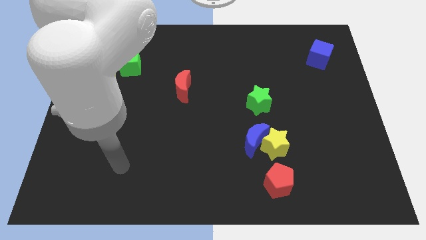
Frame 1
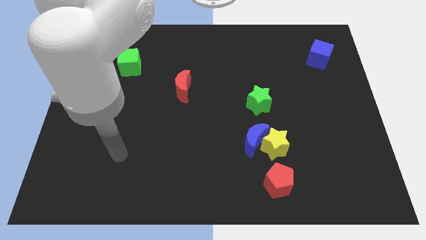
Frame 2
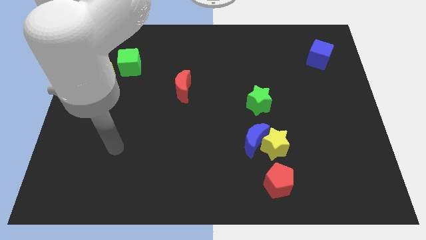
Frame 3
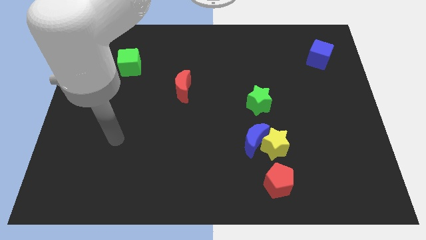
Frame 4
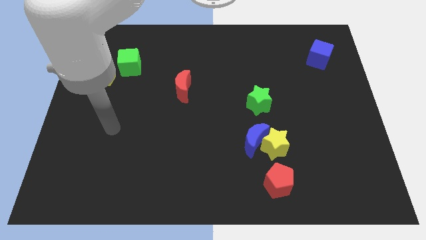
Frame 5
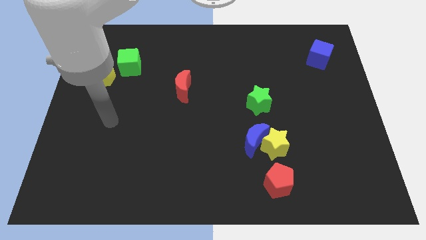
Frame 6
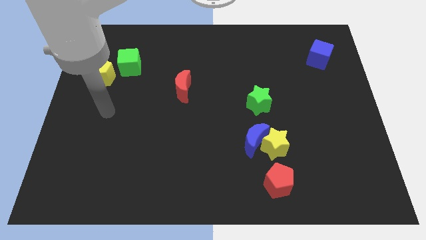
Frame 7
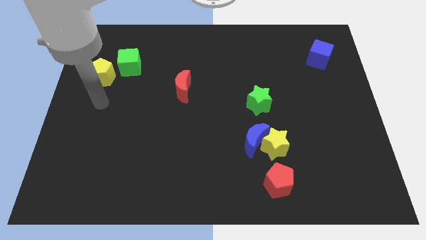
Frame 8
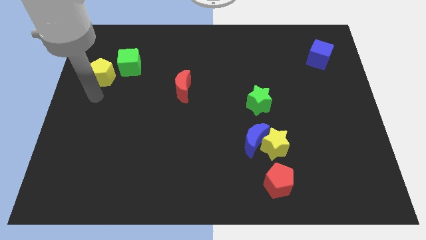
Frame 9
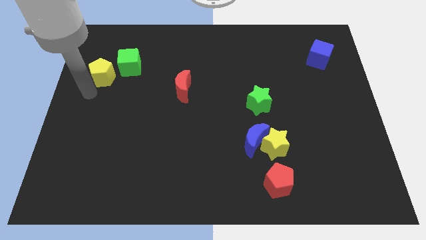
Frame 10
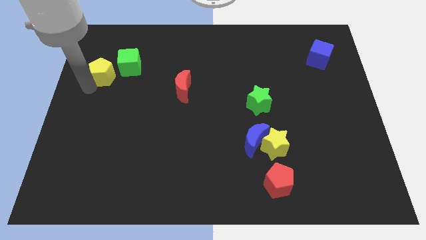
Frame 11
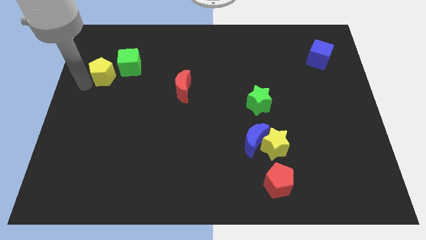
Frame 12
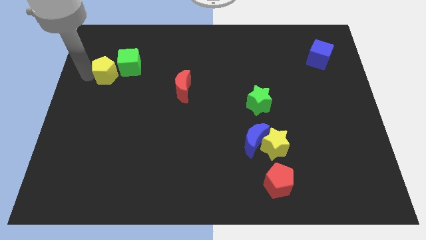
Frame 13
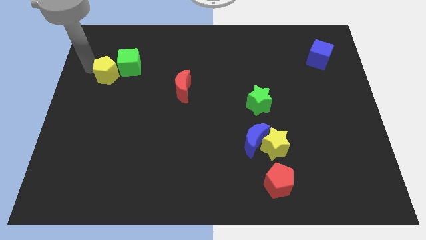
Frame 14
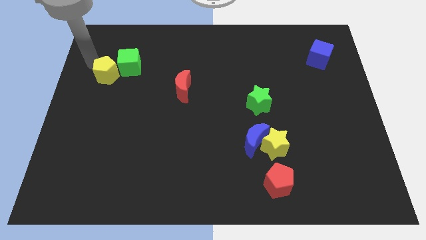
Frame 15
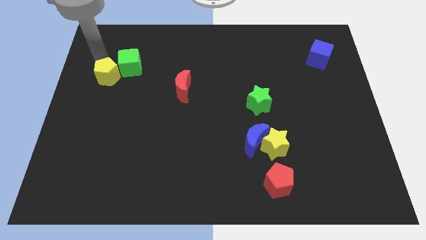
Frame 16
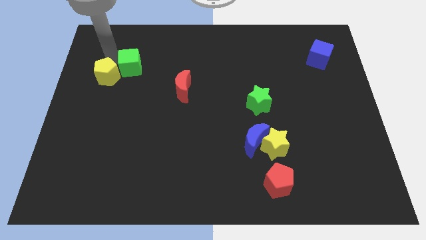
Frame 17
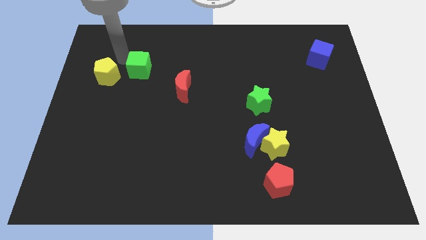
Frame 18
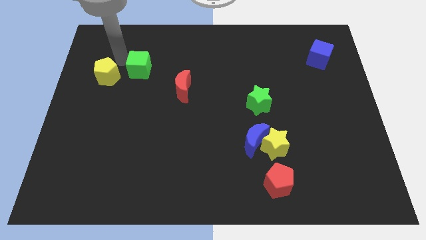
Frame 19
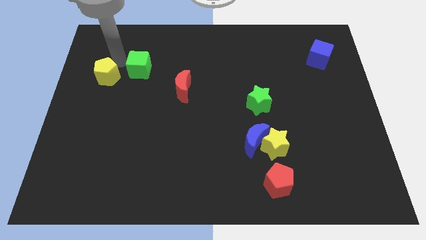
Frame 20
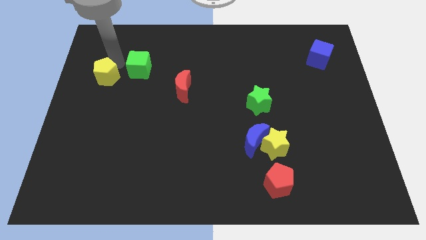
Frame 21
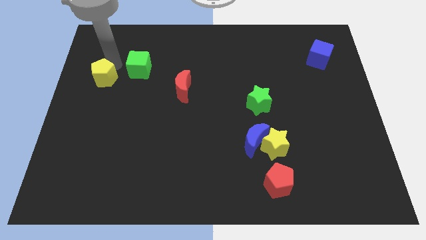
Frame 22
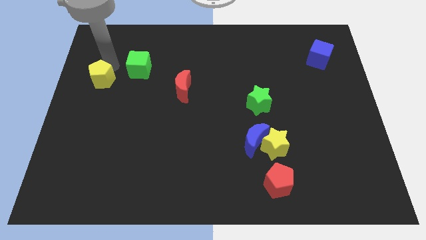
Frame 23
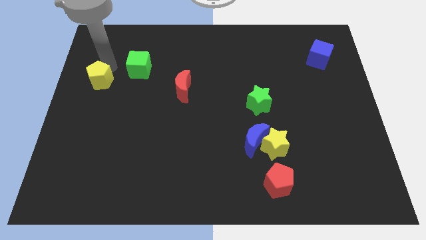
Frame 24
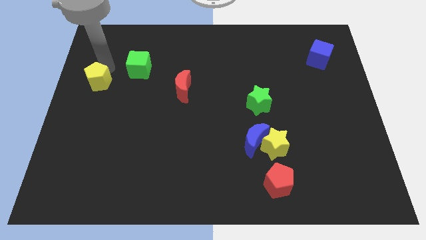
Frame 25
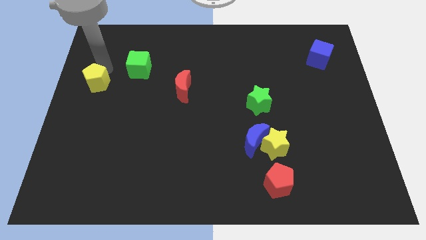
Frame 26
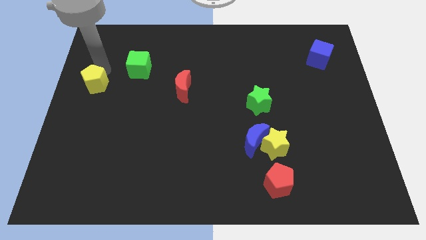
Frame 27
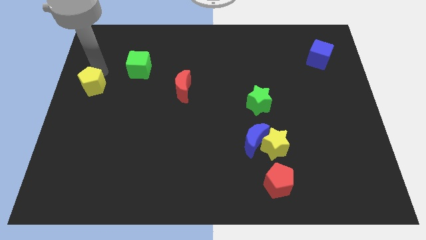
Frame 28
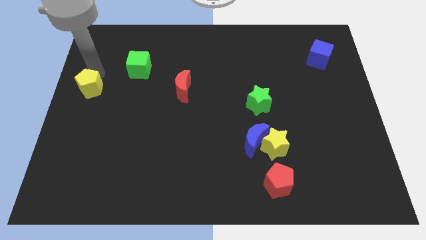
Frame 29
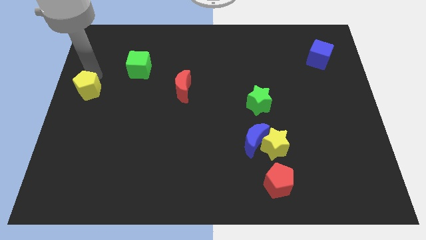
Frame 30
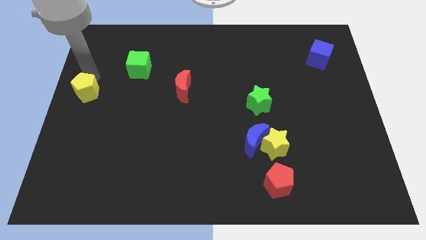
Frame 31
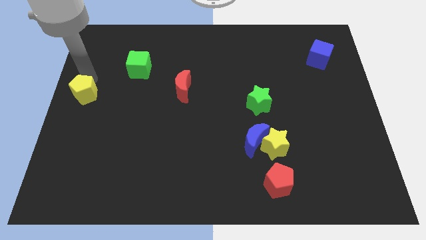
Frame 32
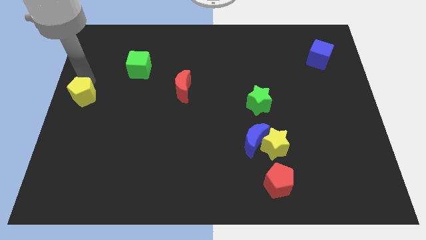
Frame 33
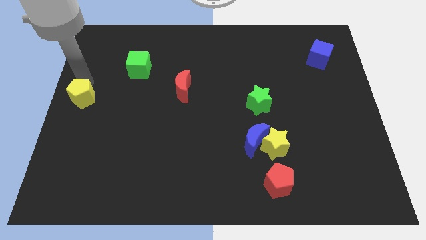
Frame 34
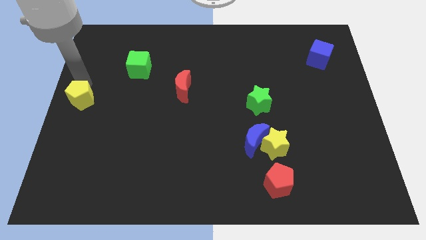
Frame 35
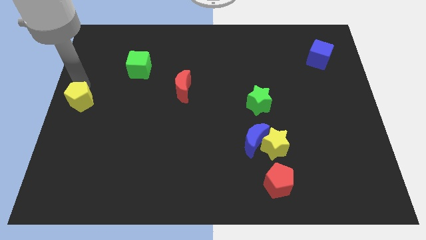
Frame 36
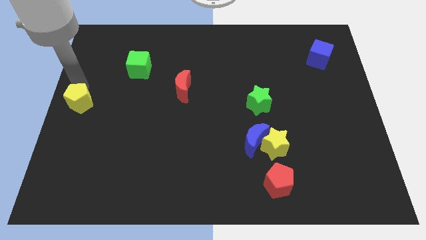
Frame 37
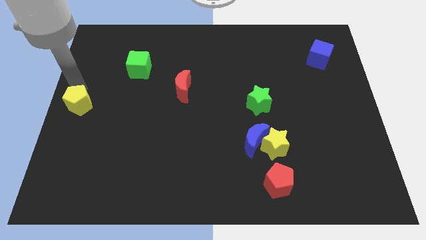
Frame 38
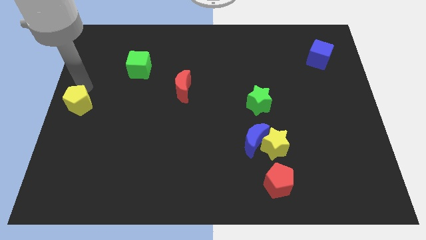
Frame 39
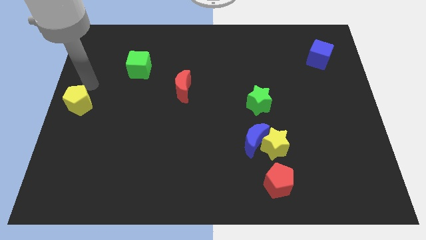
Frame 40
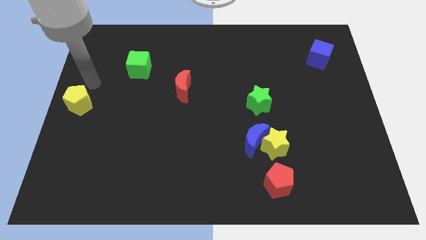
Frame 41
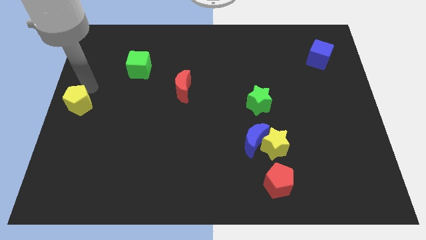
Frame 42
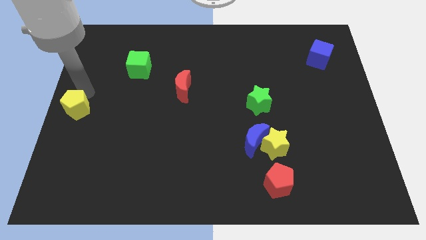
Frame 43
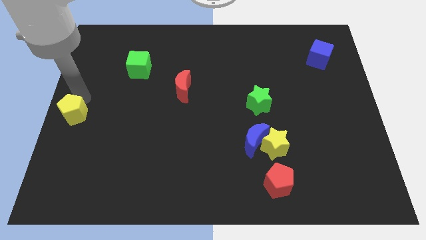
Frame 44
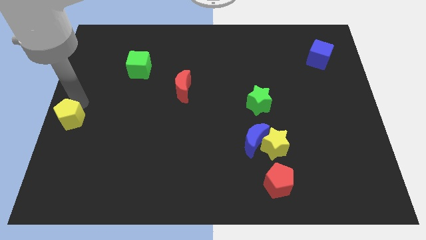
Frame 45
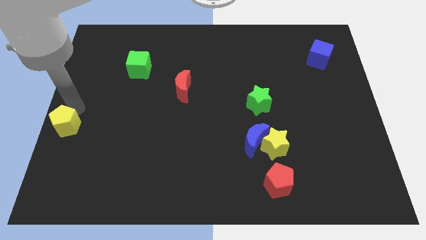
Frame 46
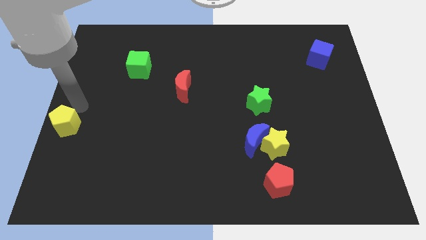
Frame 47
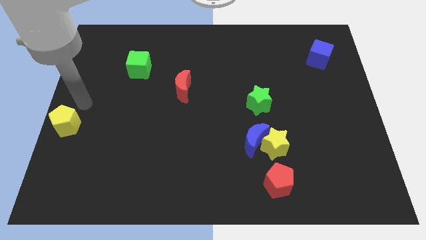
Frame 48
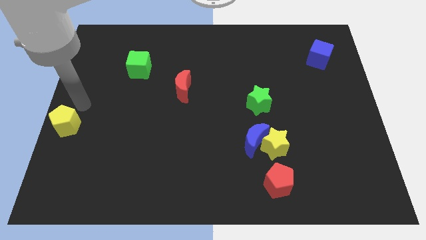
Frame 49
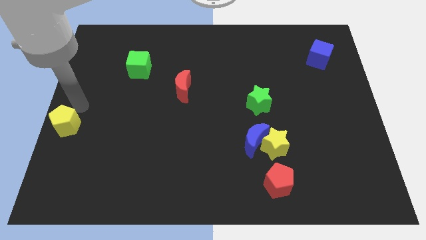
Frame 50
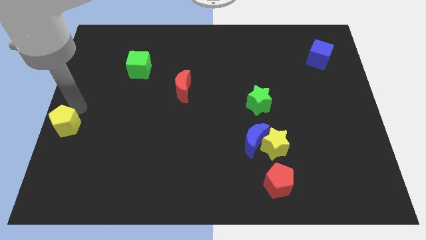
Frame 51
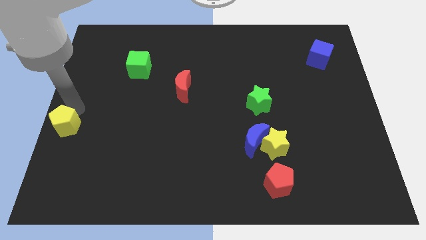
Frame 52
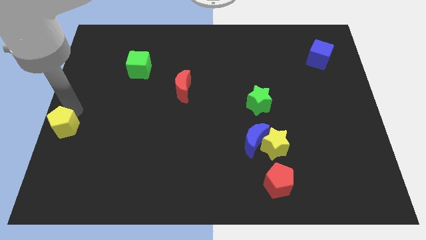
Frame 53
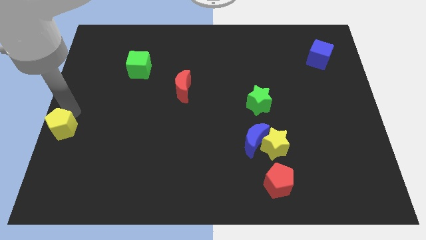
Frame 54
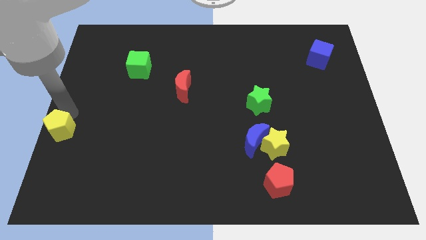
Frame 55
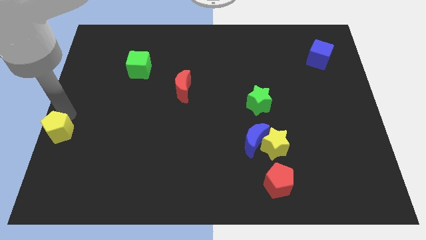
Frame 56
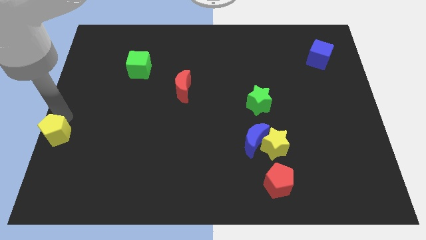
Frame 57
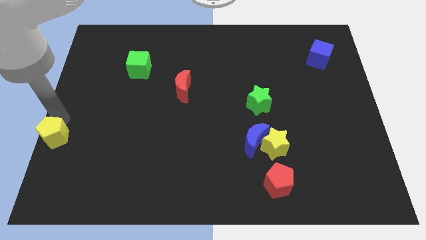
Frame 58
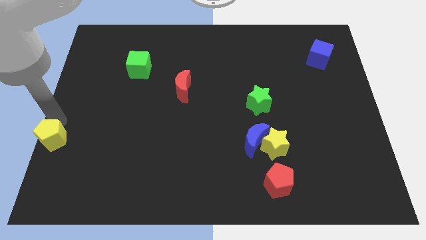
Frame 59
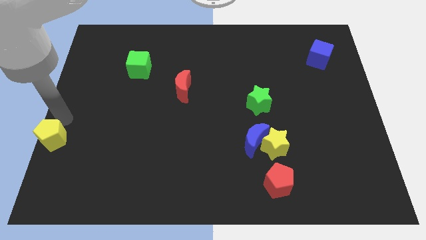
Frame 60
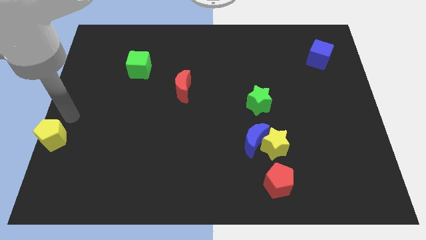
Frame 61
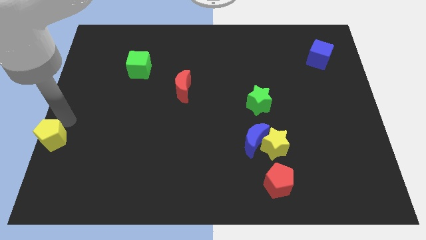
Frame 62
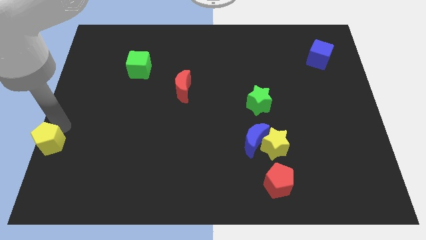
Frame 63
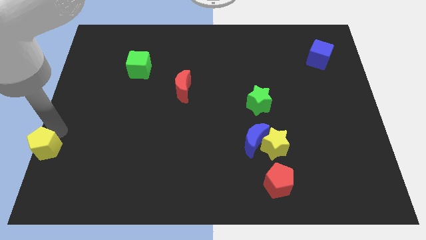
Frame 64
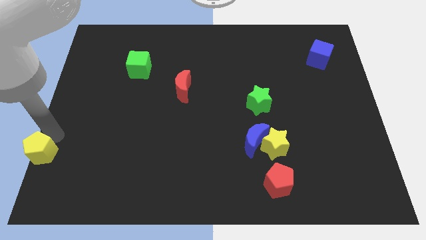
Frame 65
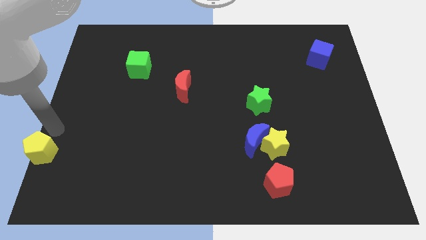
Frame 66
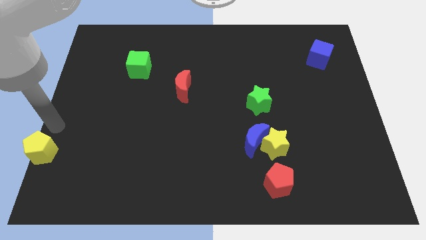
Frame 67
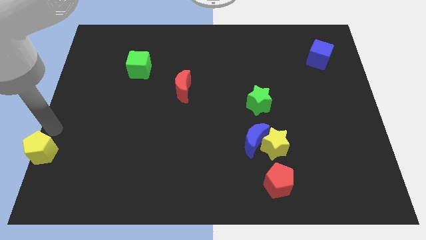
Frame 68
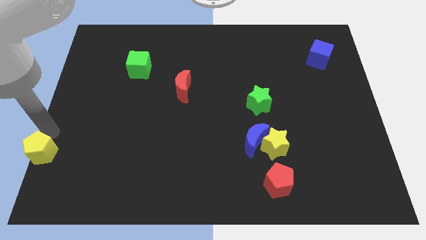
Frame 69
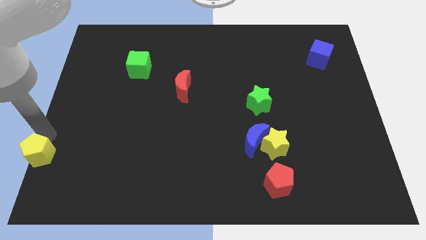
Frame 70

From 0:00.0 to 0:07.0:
push the yellow pentagon to the bottom left

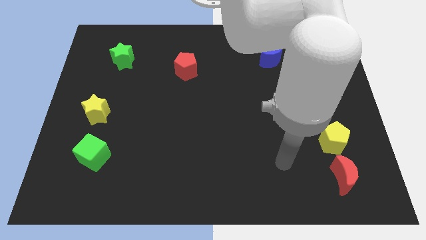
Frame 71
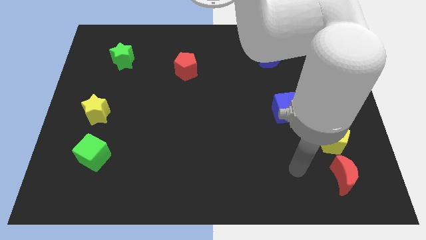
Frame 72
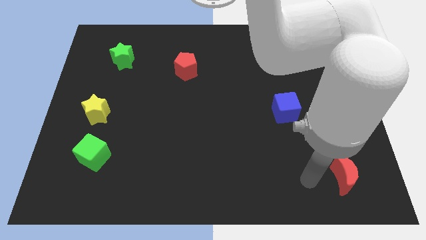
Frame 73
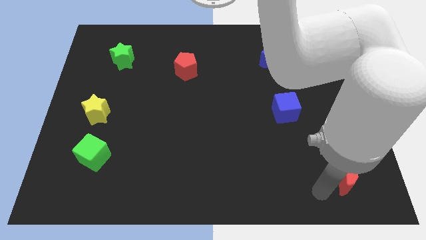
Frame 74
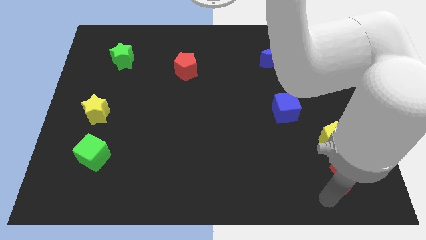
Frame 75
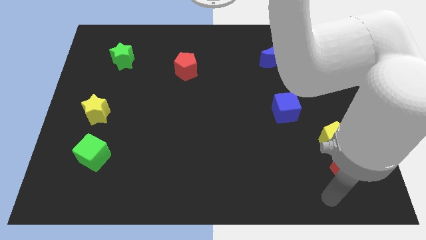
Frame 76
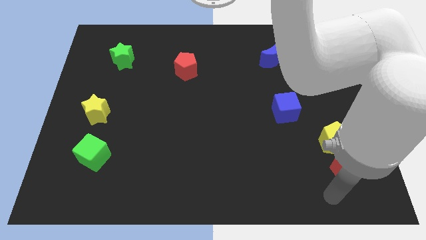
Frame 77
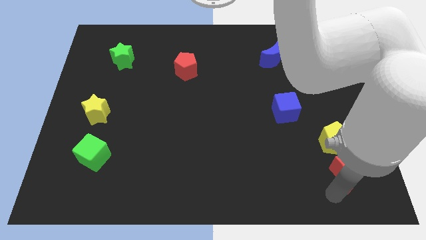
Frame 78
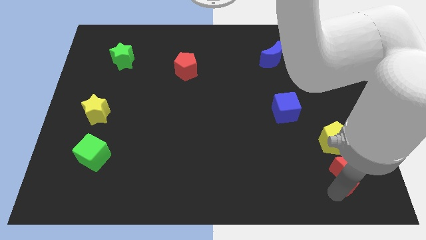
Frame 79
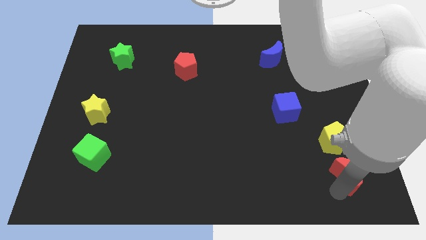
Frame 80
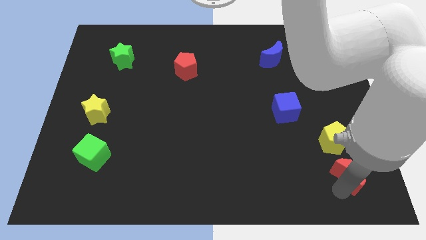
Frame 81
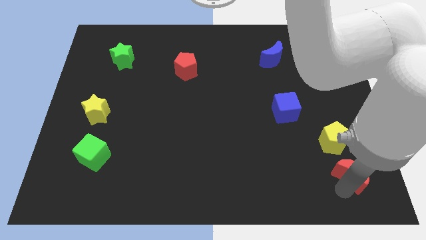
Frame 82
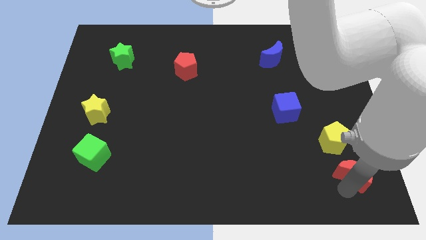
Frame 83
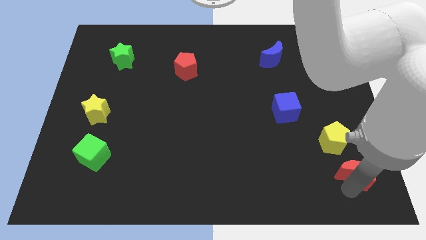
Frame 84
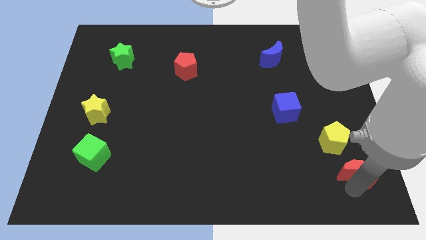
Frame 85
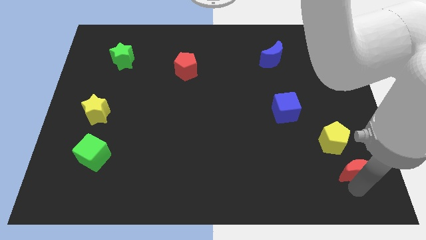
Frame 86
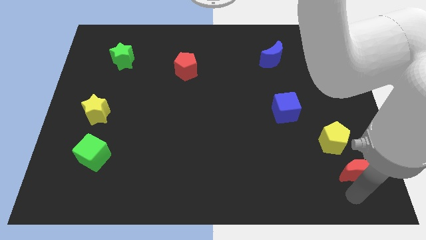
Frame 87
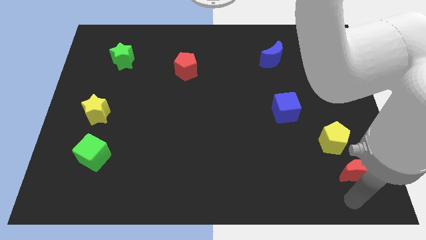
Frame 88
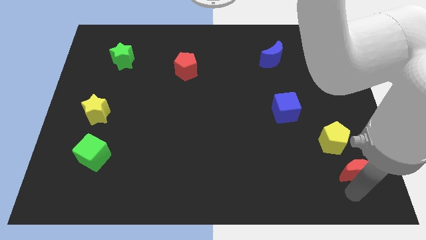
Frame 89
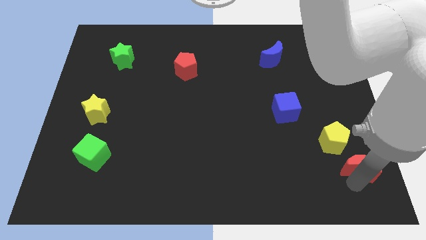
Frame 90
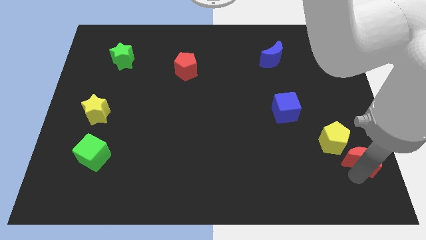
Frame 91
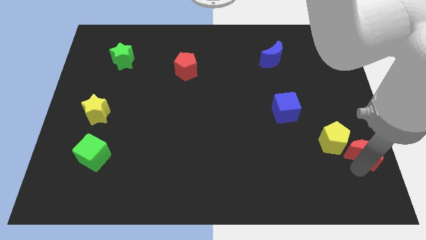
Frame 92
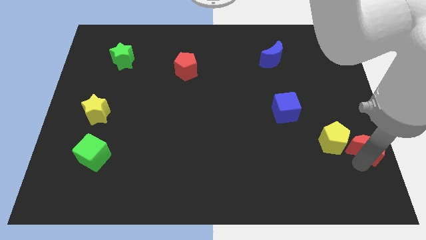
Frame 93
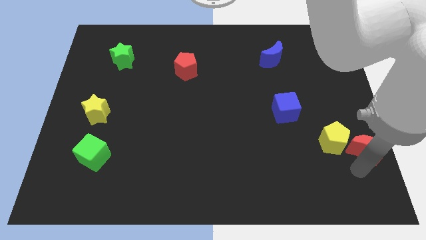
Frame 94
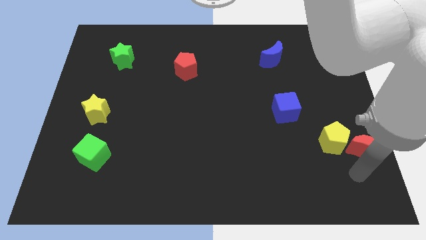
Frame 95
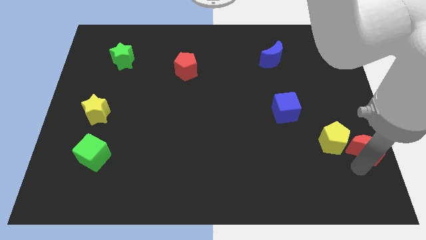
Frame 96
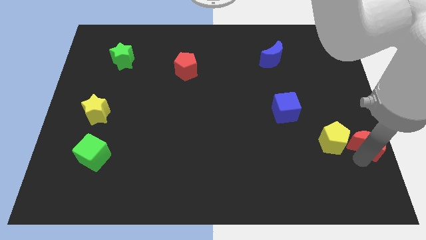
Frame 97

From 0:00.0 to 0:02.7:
push the red moon to the right side of the board
